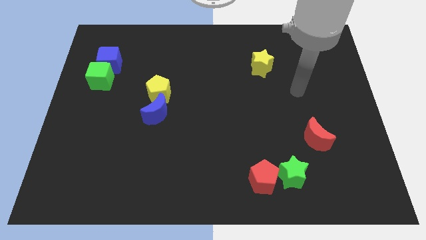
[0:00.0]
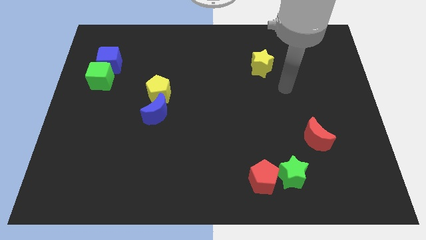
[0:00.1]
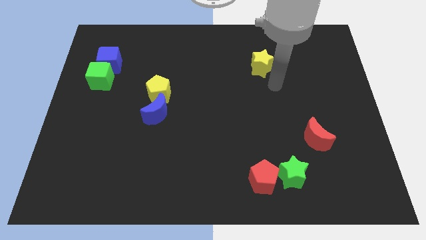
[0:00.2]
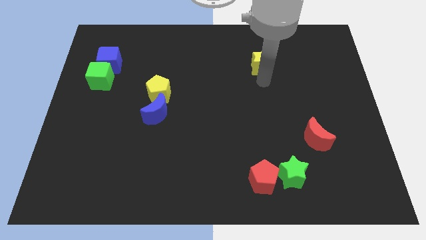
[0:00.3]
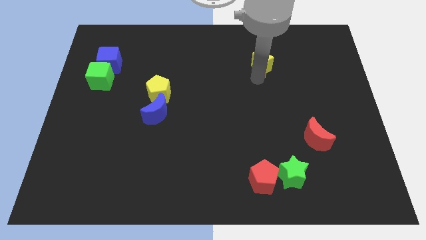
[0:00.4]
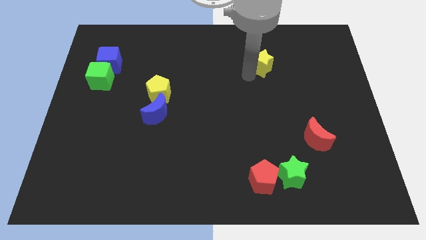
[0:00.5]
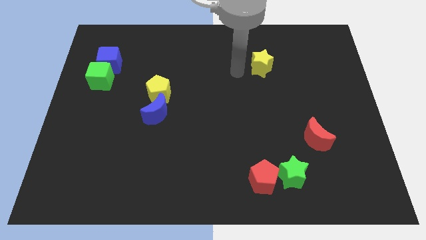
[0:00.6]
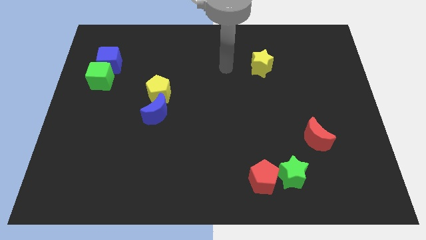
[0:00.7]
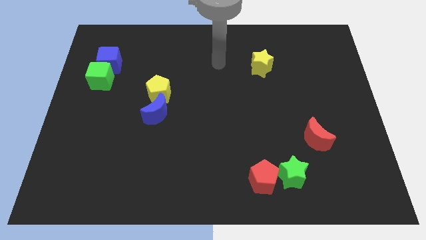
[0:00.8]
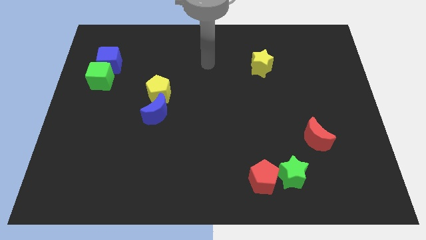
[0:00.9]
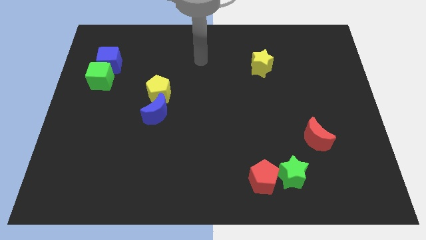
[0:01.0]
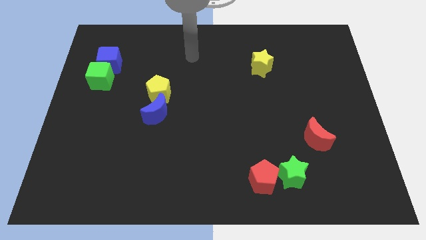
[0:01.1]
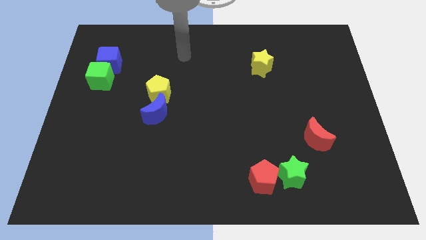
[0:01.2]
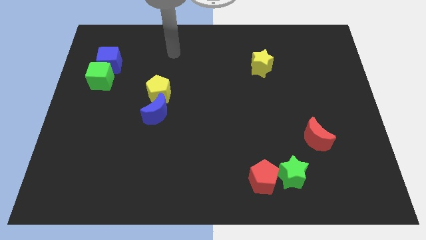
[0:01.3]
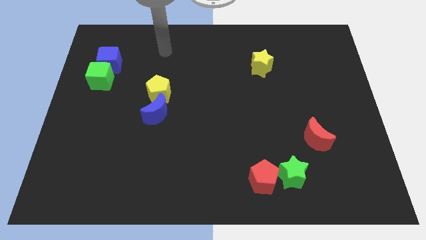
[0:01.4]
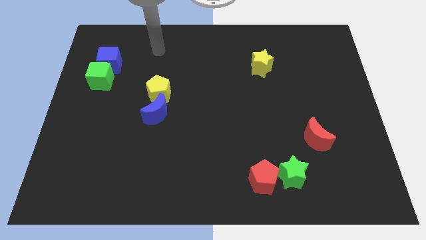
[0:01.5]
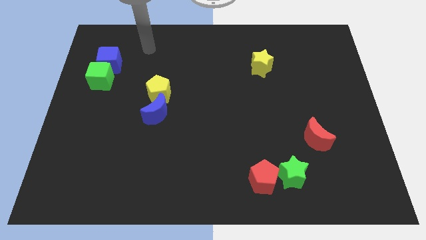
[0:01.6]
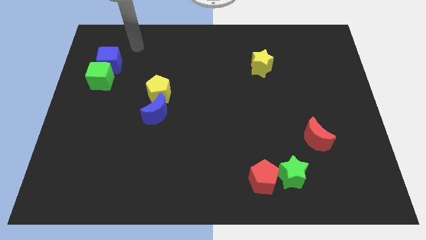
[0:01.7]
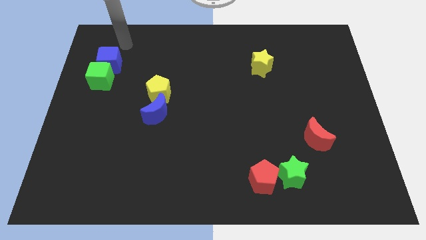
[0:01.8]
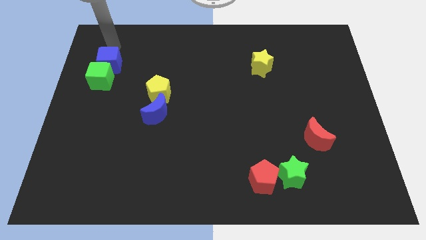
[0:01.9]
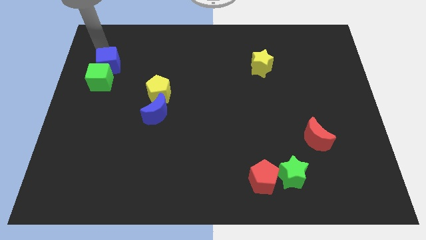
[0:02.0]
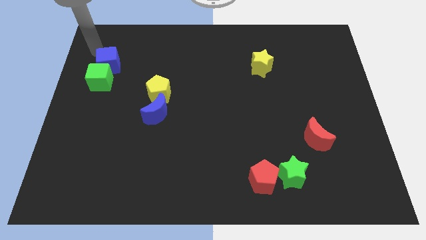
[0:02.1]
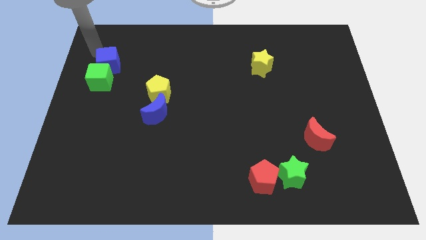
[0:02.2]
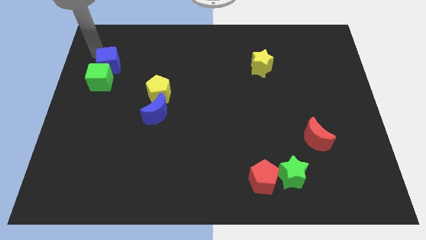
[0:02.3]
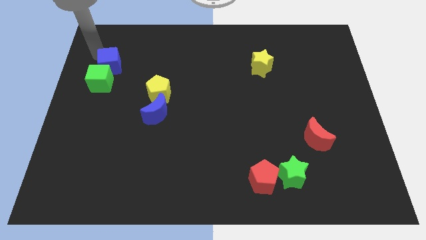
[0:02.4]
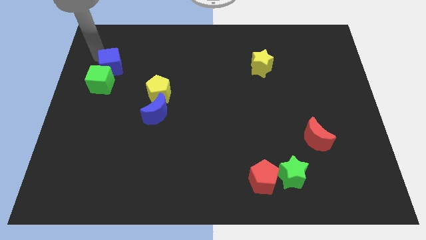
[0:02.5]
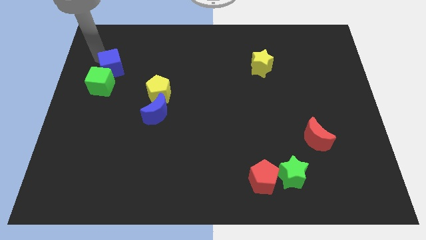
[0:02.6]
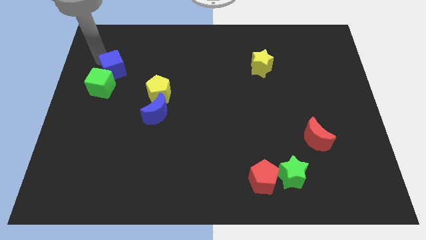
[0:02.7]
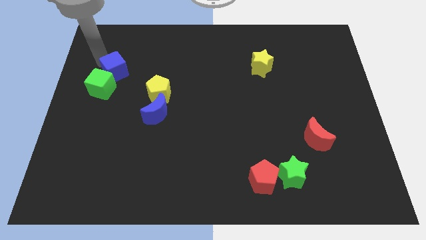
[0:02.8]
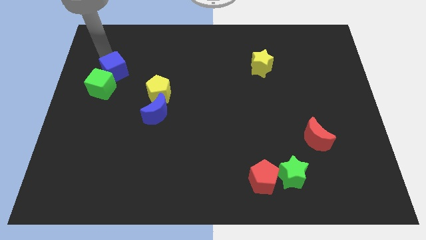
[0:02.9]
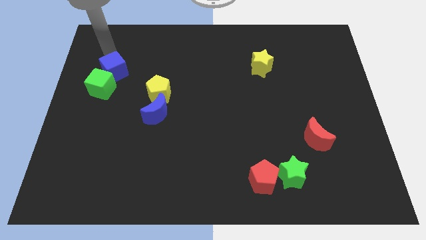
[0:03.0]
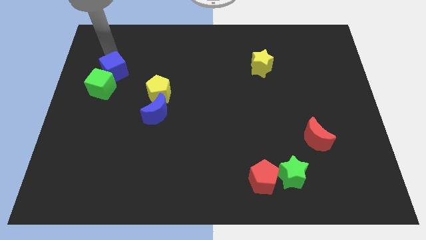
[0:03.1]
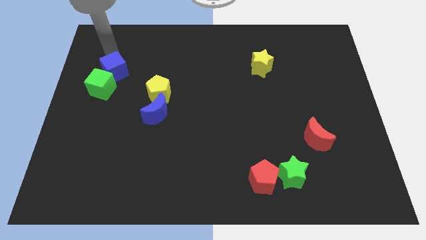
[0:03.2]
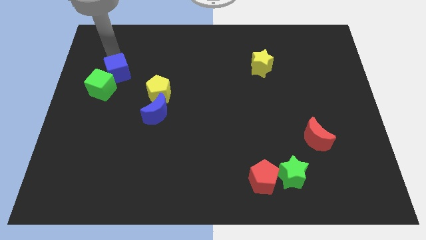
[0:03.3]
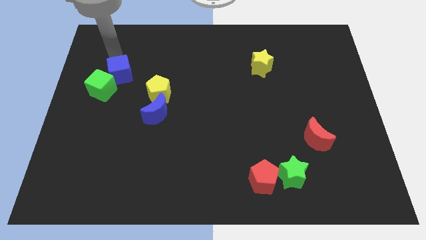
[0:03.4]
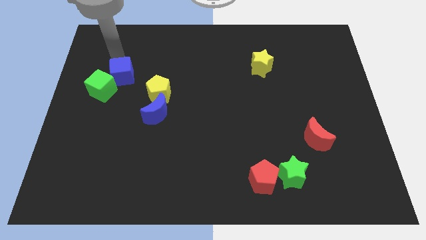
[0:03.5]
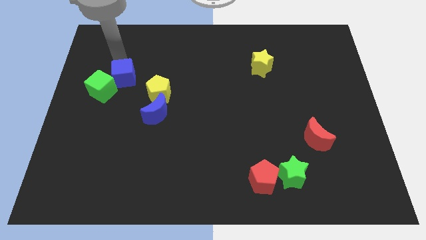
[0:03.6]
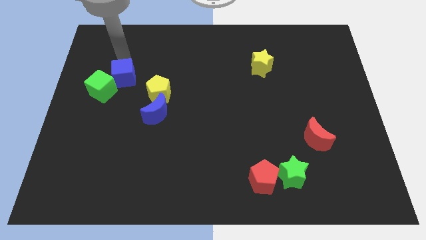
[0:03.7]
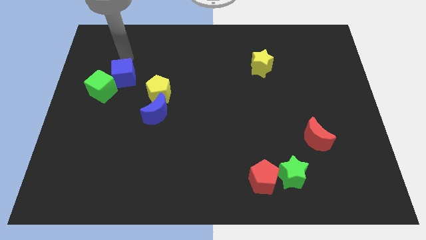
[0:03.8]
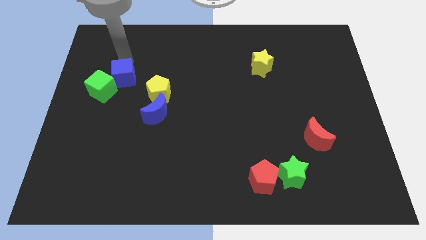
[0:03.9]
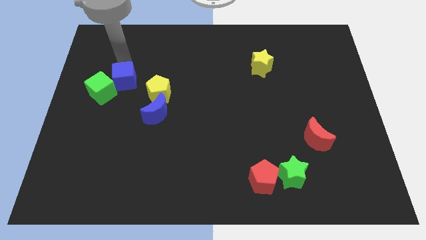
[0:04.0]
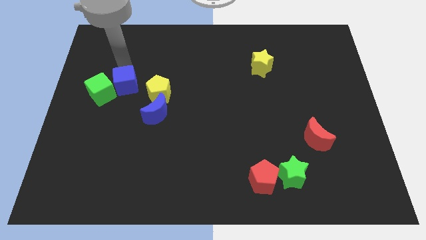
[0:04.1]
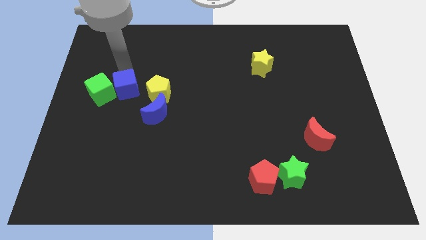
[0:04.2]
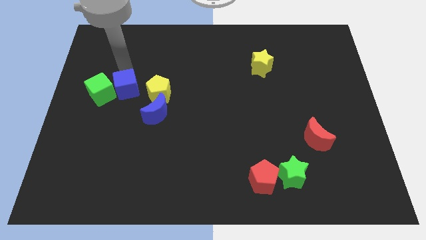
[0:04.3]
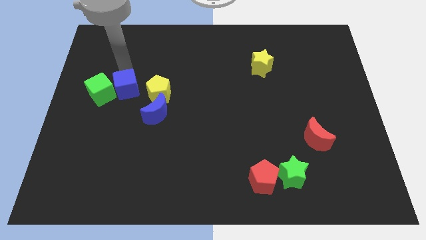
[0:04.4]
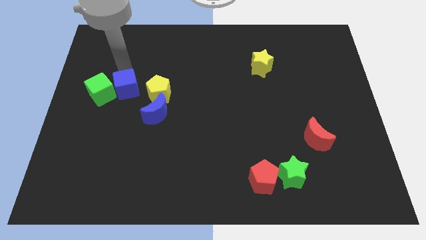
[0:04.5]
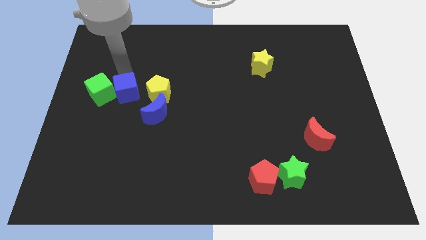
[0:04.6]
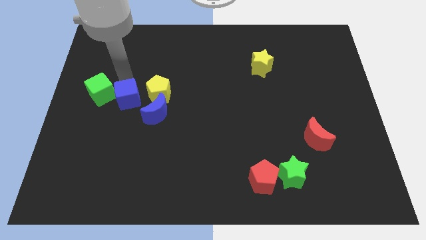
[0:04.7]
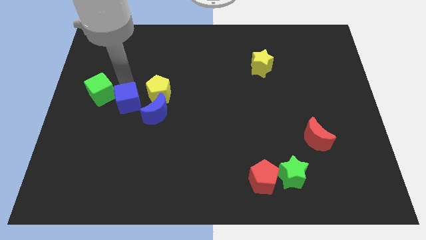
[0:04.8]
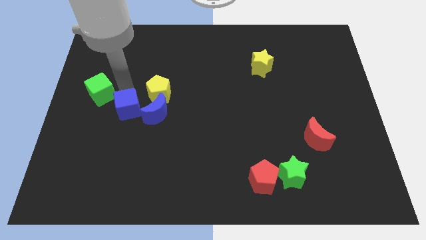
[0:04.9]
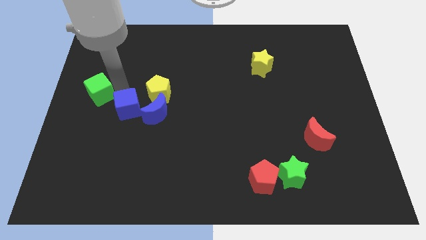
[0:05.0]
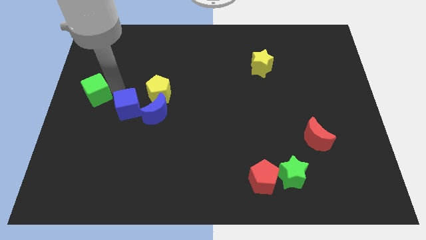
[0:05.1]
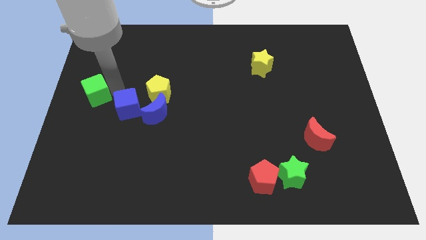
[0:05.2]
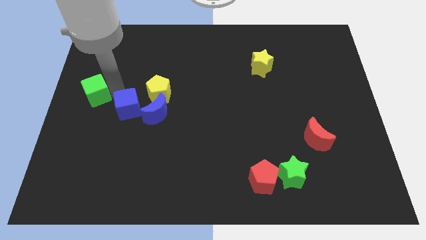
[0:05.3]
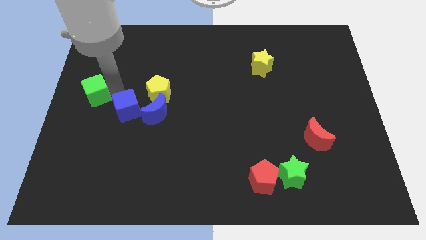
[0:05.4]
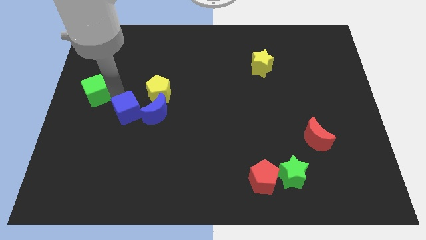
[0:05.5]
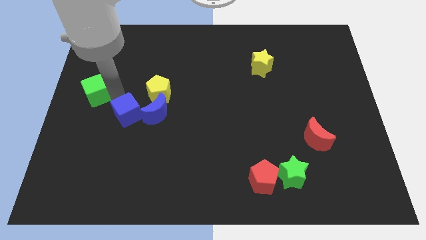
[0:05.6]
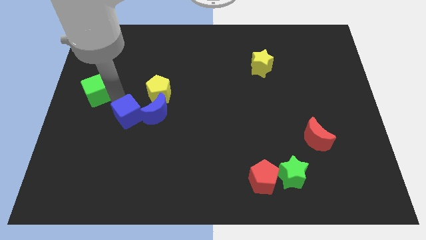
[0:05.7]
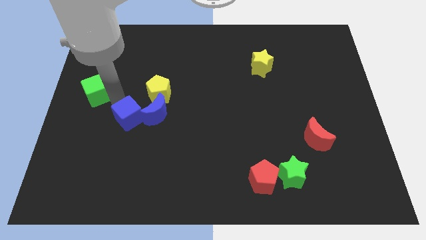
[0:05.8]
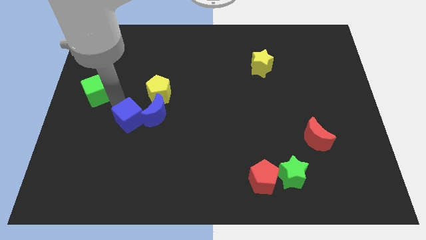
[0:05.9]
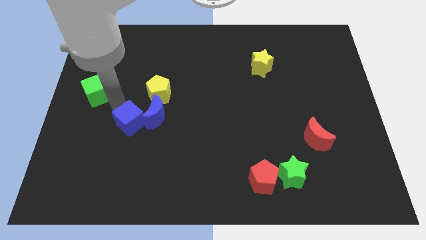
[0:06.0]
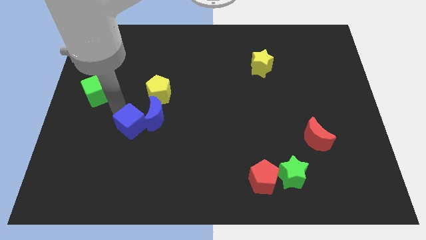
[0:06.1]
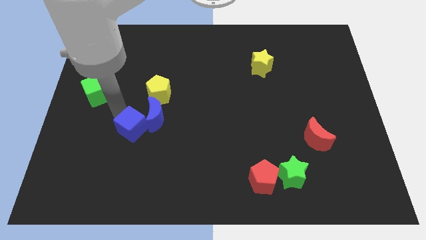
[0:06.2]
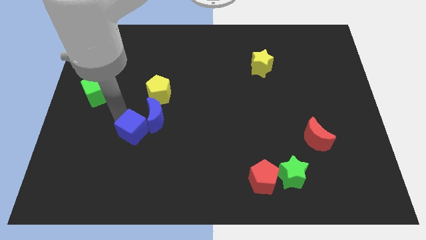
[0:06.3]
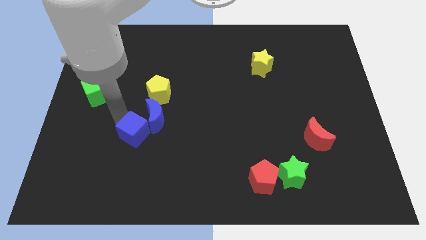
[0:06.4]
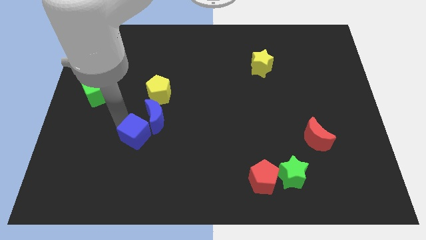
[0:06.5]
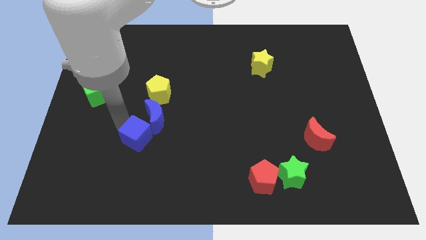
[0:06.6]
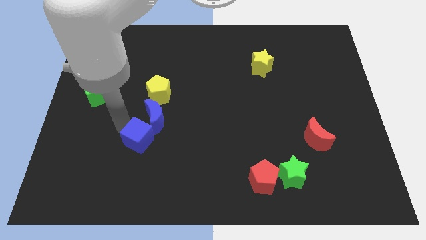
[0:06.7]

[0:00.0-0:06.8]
move the blue cube downwards and right diagonally

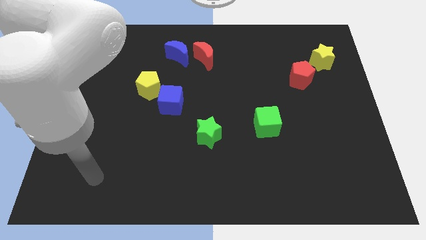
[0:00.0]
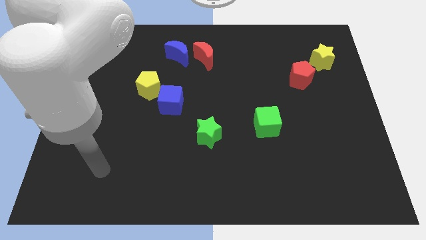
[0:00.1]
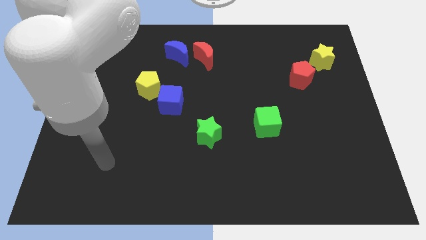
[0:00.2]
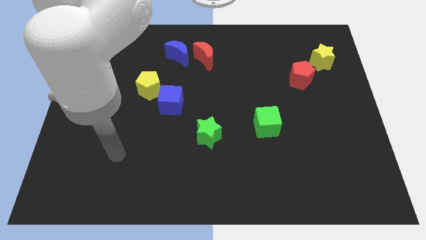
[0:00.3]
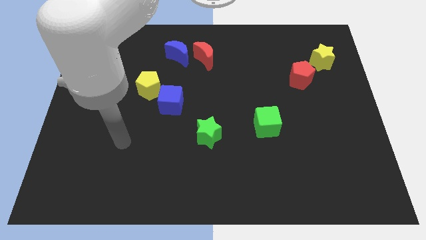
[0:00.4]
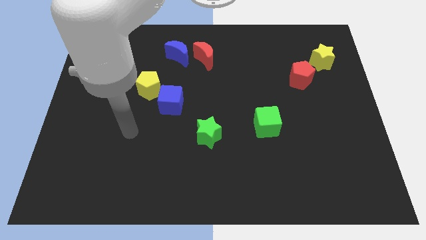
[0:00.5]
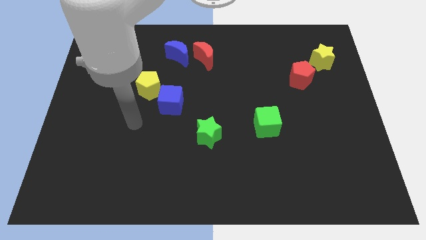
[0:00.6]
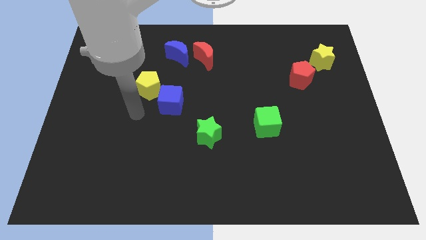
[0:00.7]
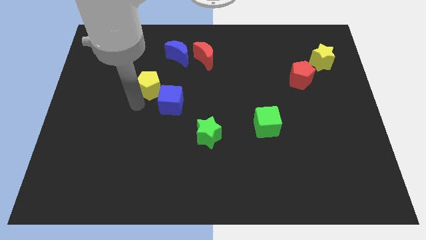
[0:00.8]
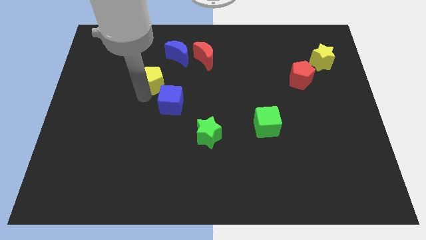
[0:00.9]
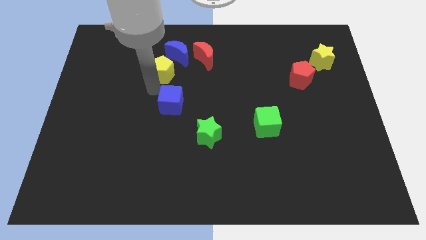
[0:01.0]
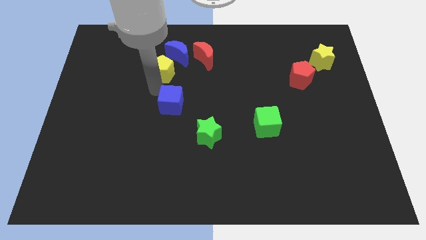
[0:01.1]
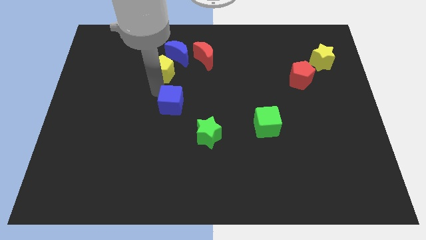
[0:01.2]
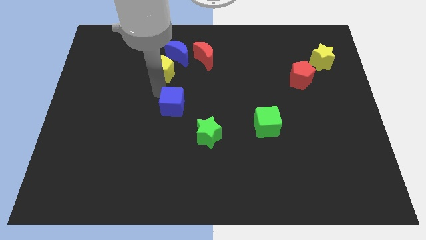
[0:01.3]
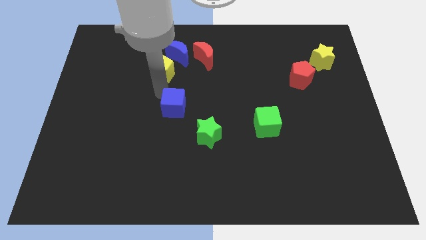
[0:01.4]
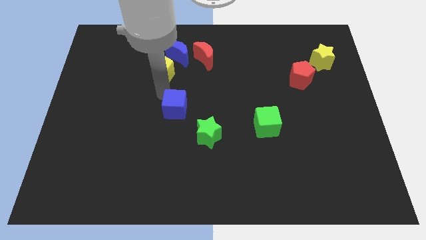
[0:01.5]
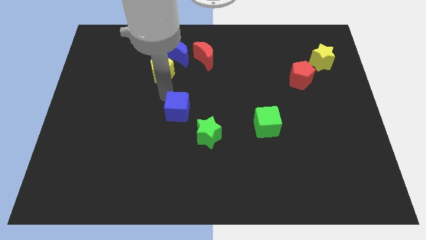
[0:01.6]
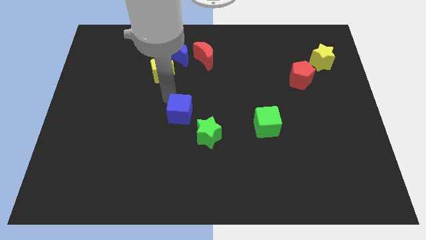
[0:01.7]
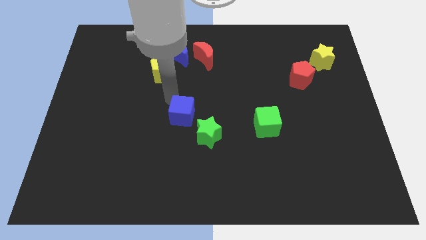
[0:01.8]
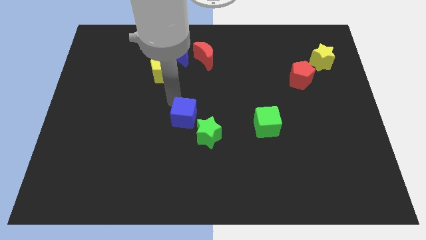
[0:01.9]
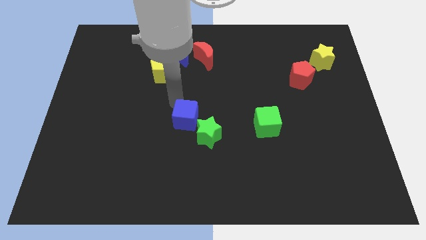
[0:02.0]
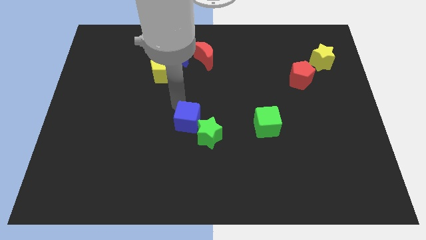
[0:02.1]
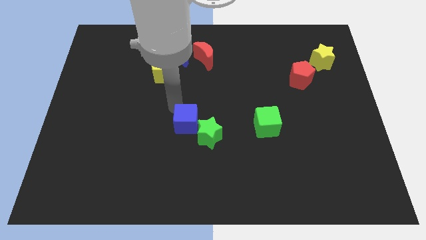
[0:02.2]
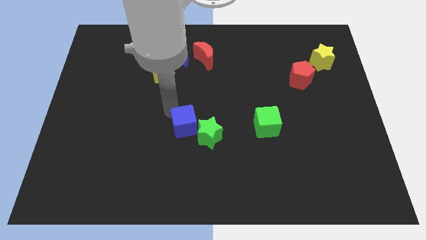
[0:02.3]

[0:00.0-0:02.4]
move the blue cube down and then to the right a little bit
